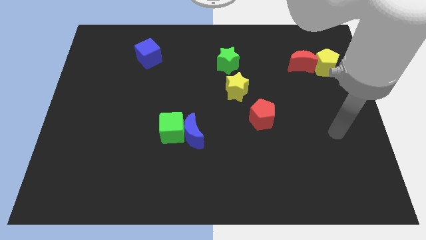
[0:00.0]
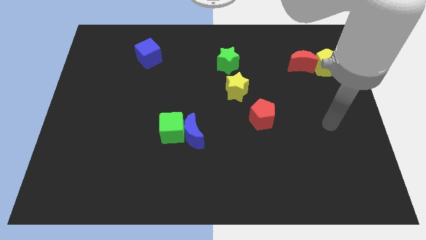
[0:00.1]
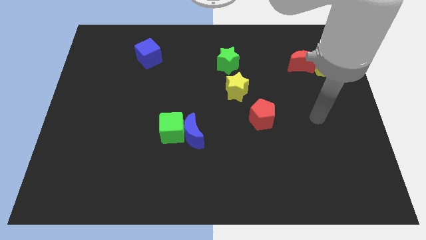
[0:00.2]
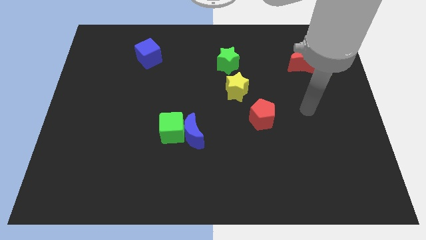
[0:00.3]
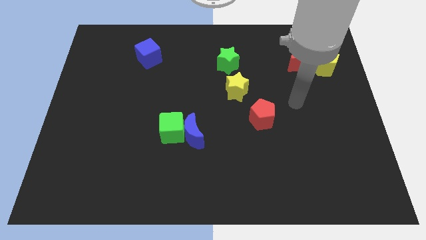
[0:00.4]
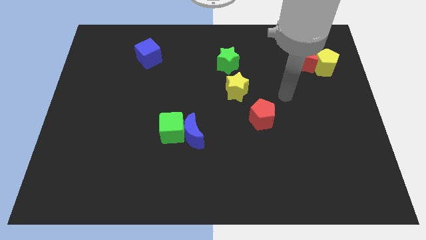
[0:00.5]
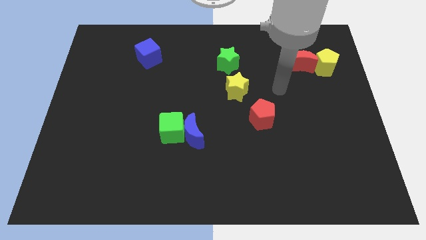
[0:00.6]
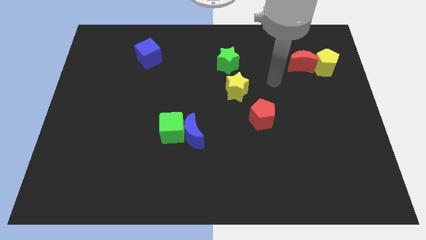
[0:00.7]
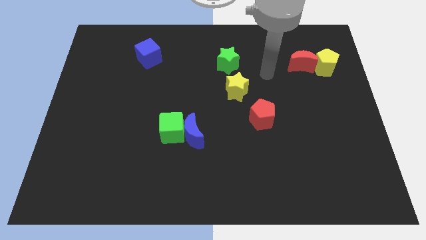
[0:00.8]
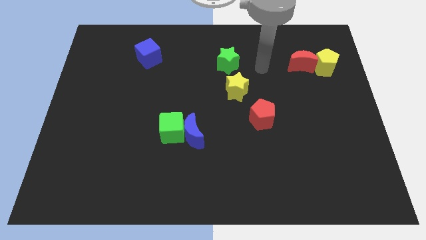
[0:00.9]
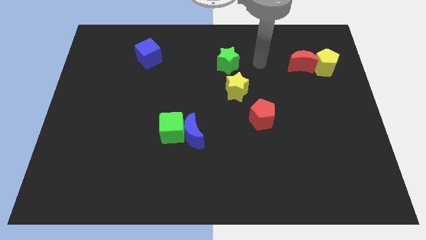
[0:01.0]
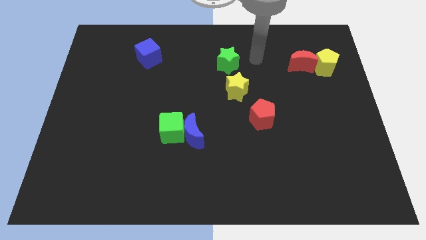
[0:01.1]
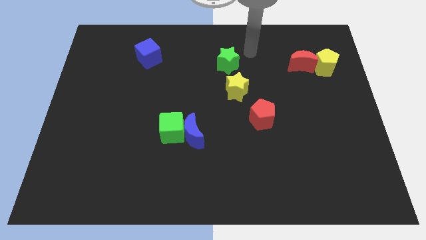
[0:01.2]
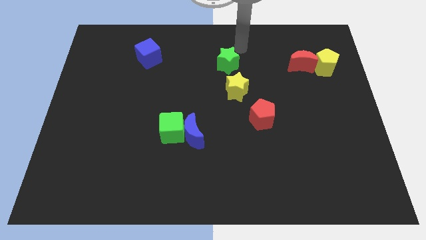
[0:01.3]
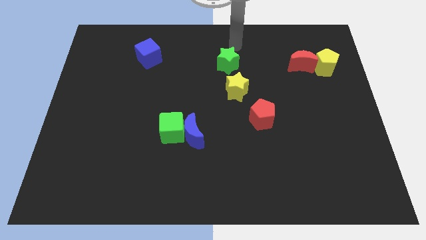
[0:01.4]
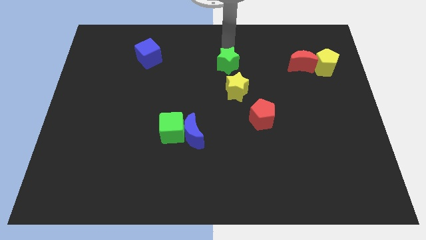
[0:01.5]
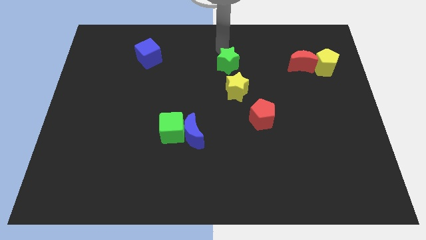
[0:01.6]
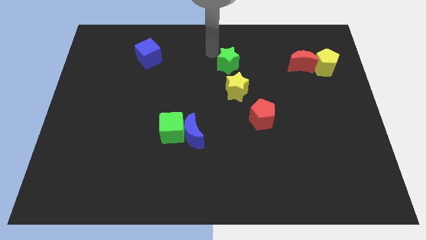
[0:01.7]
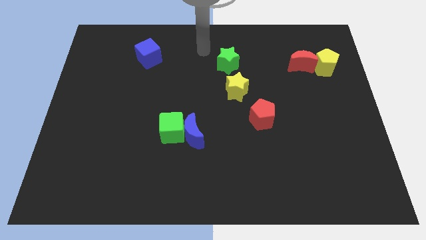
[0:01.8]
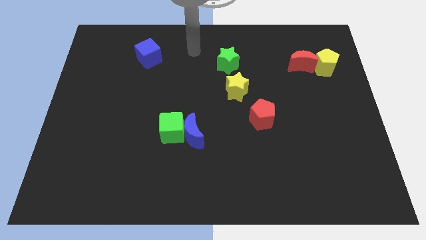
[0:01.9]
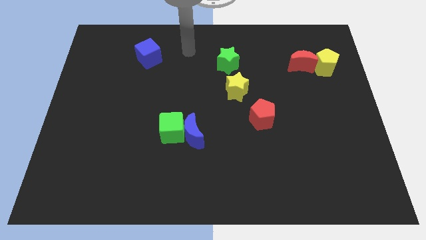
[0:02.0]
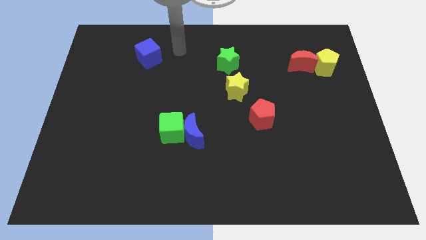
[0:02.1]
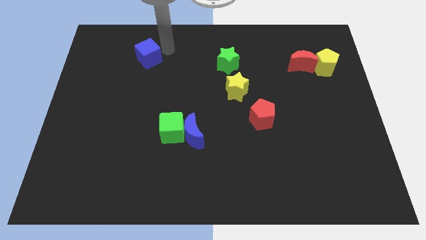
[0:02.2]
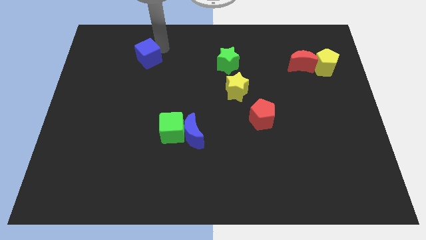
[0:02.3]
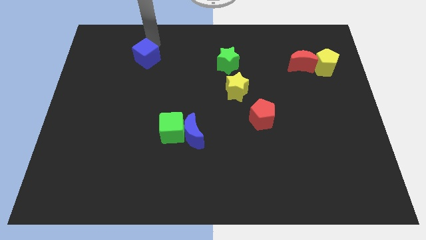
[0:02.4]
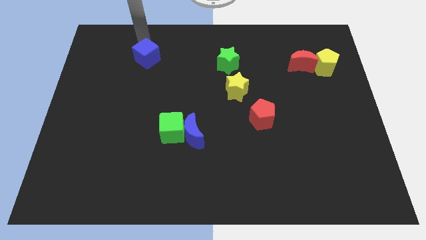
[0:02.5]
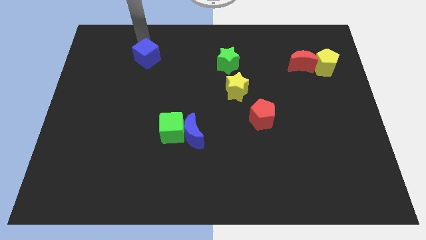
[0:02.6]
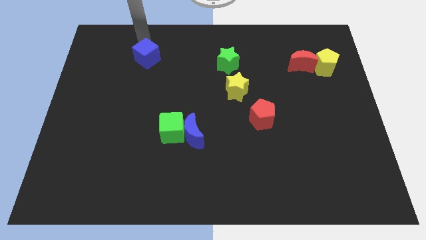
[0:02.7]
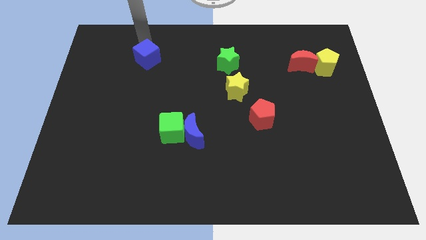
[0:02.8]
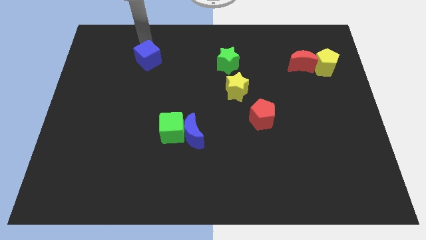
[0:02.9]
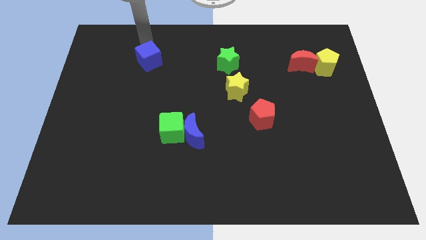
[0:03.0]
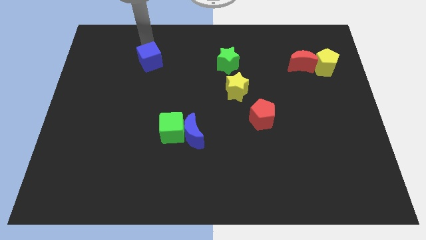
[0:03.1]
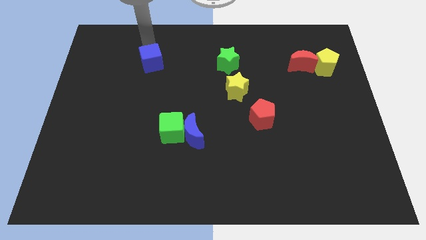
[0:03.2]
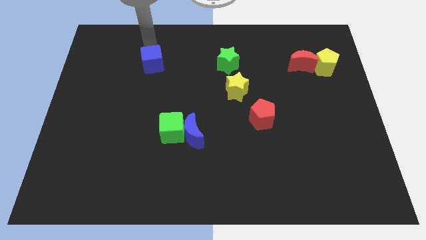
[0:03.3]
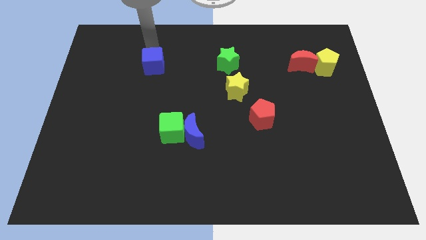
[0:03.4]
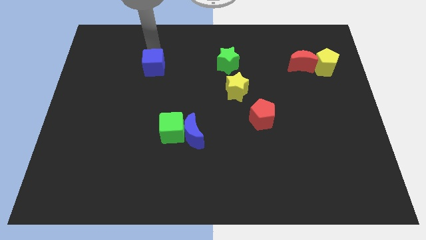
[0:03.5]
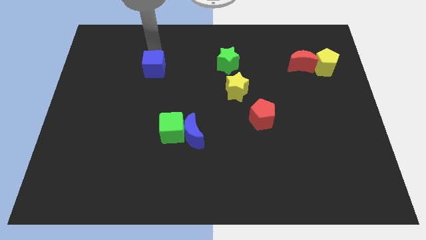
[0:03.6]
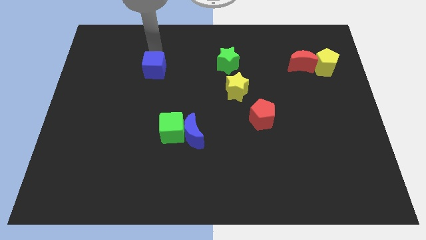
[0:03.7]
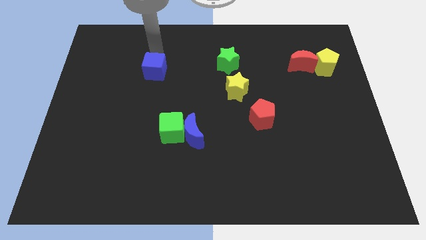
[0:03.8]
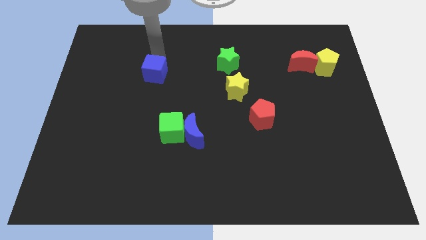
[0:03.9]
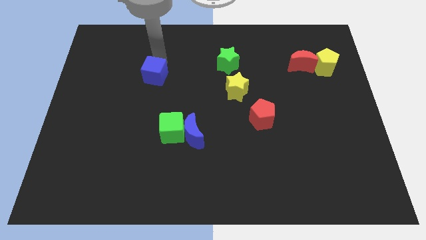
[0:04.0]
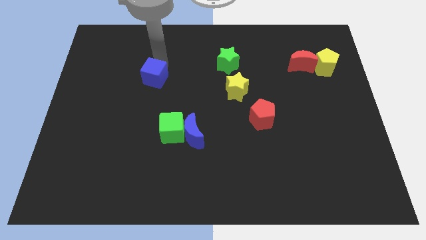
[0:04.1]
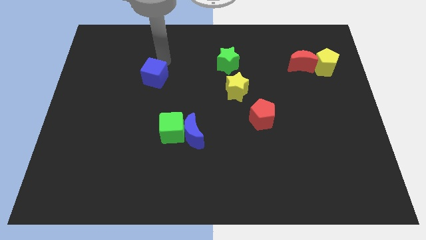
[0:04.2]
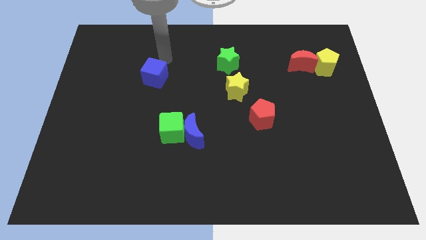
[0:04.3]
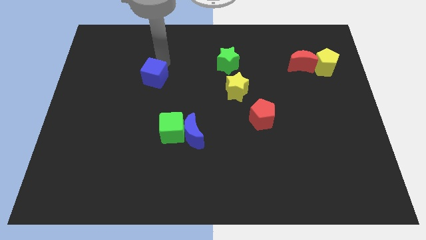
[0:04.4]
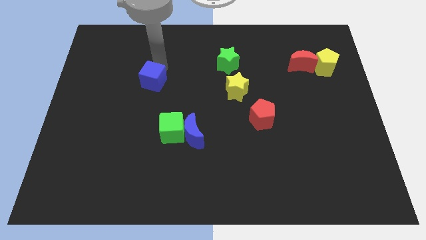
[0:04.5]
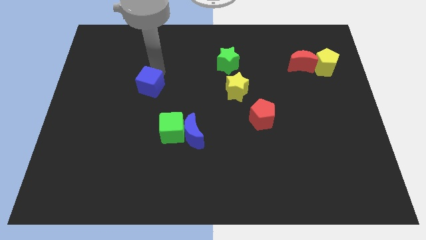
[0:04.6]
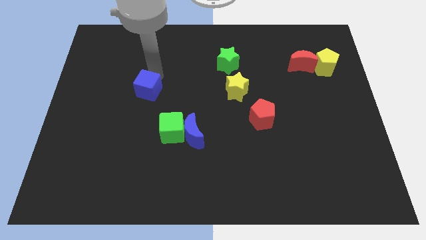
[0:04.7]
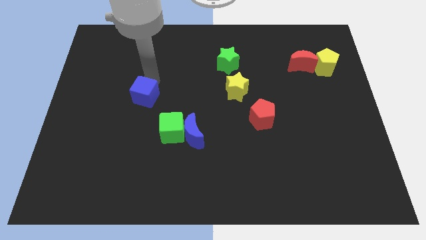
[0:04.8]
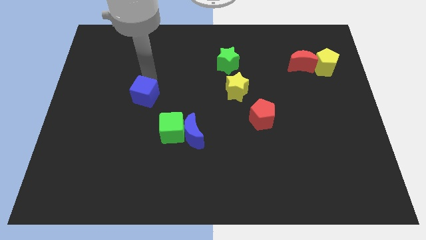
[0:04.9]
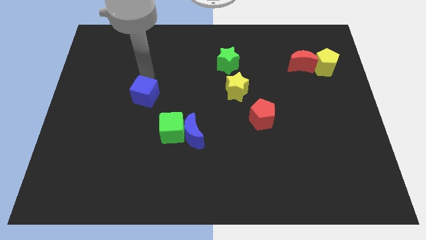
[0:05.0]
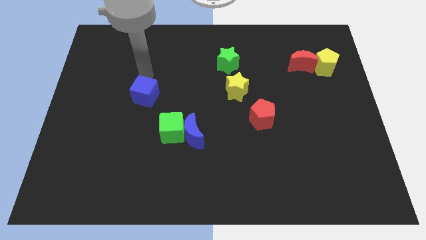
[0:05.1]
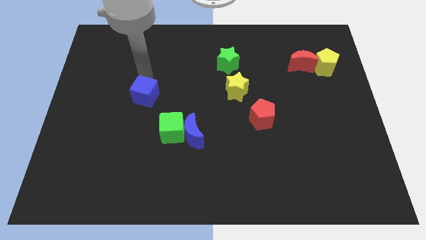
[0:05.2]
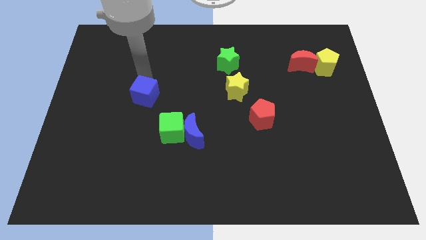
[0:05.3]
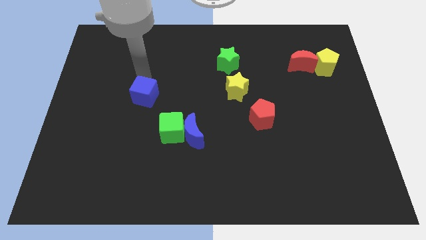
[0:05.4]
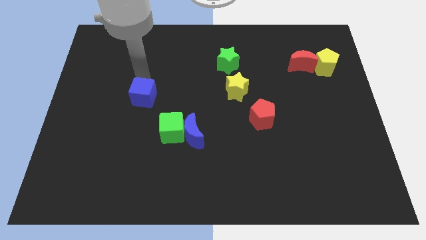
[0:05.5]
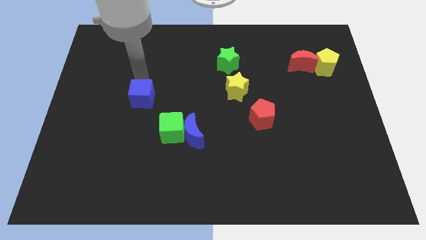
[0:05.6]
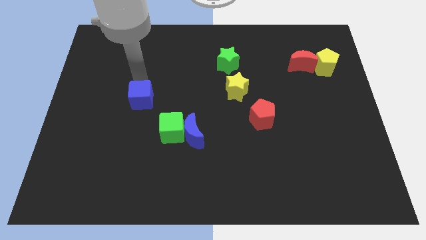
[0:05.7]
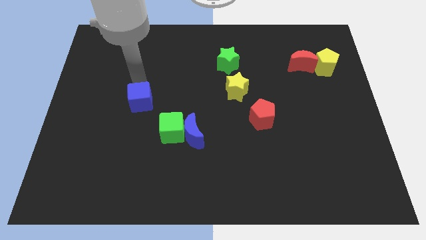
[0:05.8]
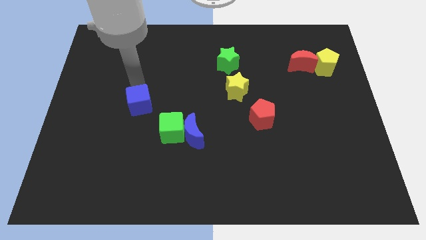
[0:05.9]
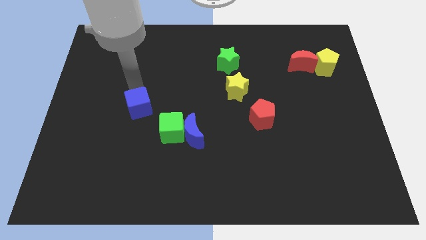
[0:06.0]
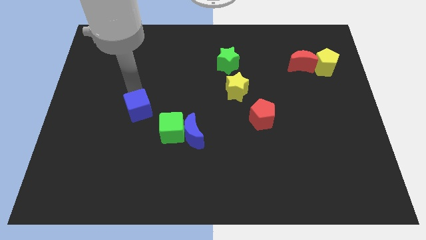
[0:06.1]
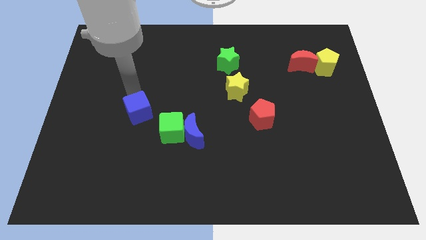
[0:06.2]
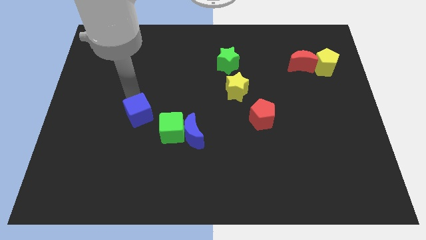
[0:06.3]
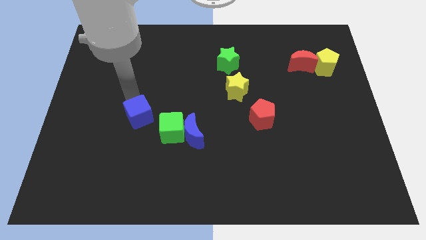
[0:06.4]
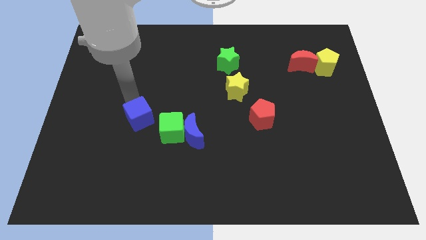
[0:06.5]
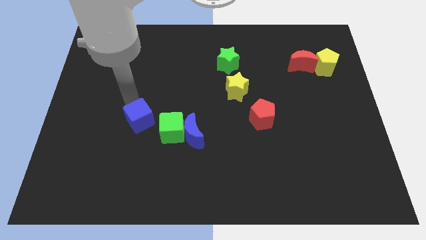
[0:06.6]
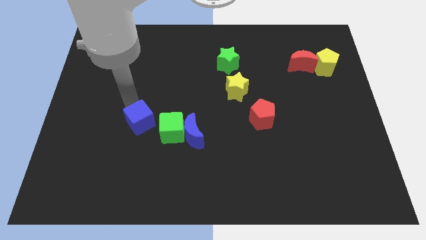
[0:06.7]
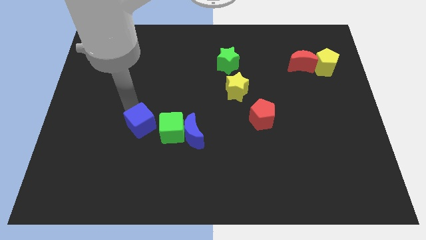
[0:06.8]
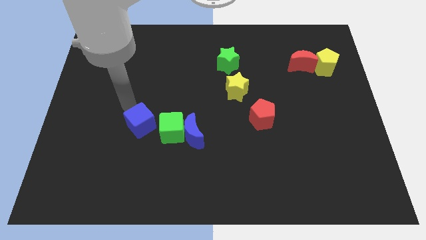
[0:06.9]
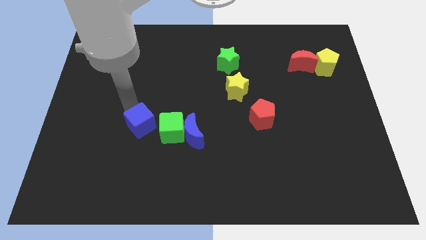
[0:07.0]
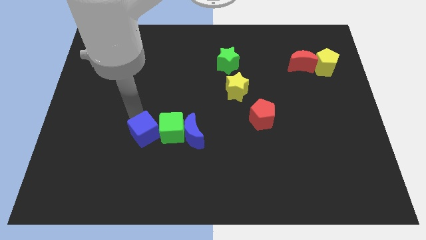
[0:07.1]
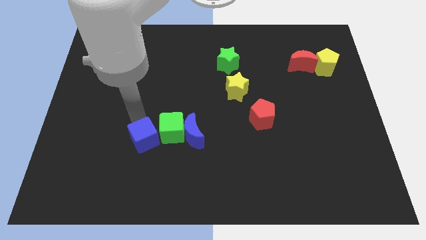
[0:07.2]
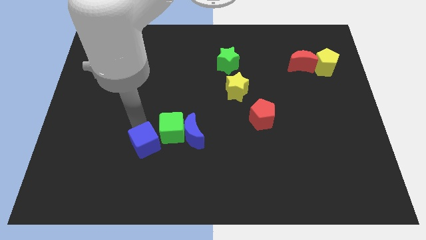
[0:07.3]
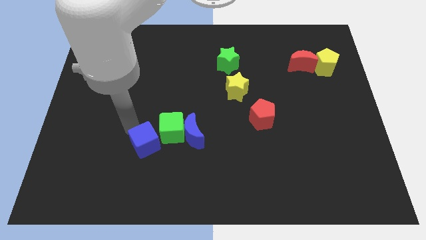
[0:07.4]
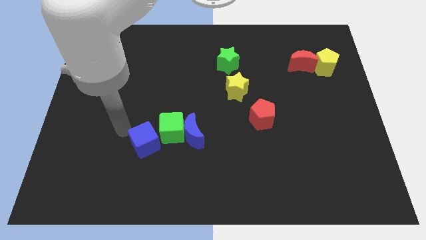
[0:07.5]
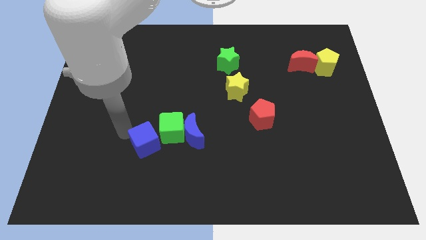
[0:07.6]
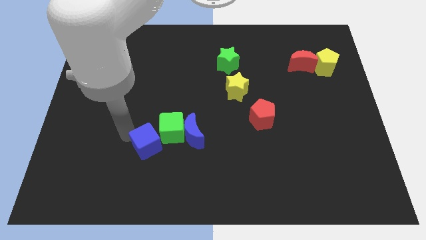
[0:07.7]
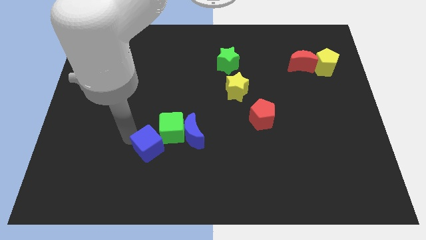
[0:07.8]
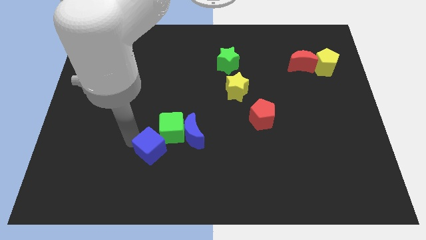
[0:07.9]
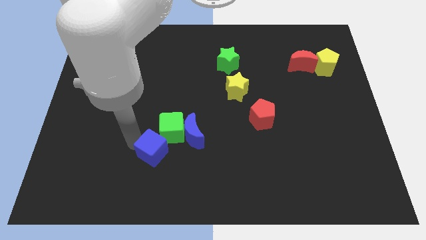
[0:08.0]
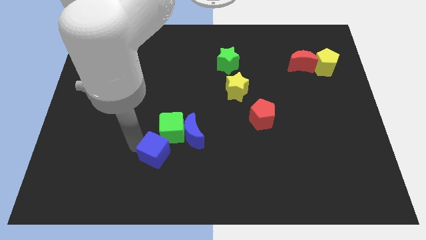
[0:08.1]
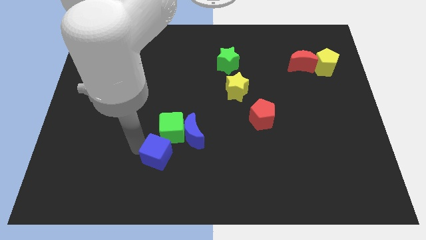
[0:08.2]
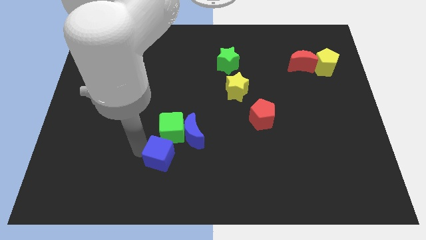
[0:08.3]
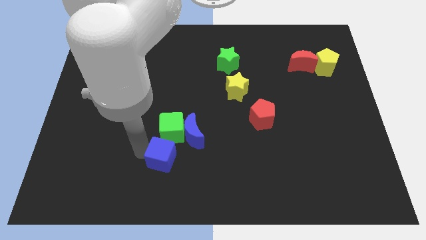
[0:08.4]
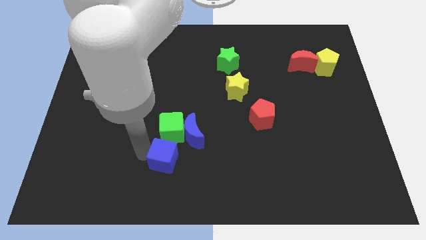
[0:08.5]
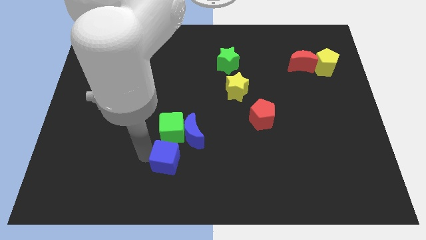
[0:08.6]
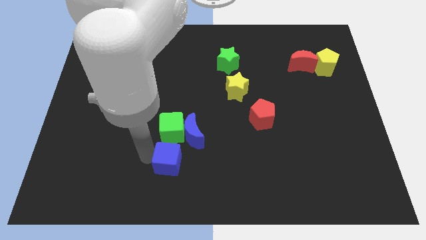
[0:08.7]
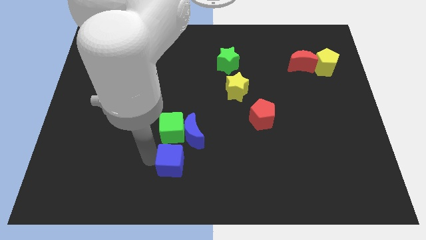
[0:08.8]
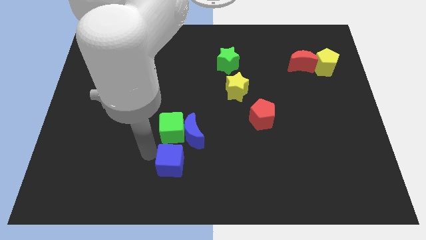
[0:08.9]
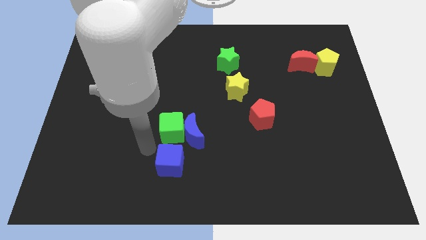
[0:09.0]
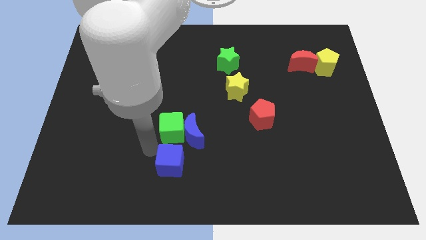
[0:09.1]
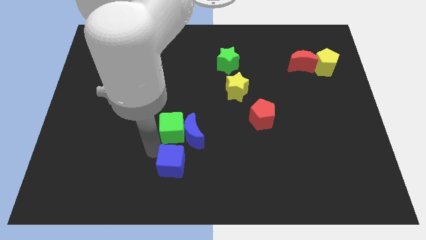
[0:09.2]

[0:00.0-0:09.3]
slide the blue cube to the bottom side
